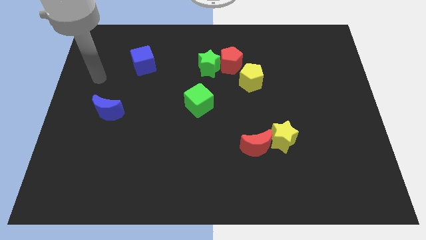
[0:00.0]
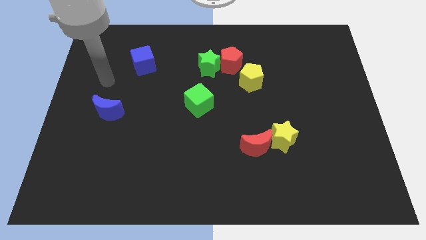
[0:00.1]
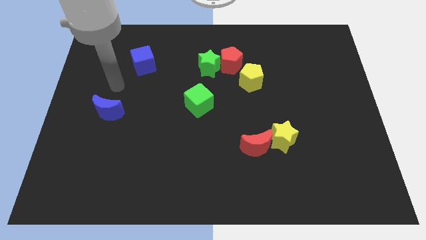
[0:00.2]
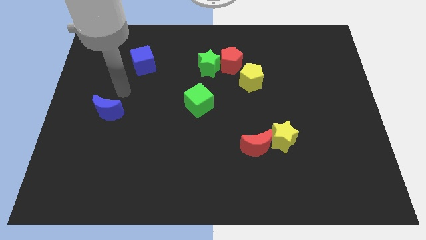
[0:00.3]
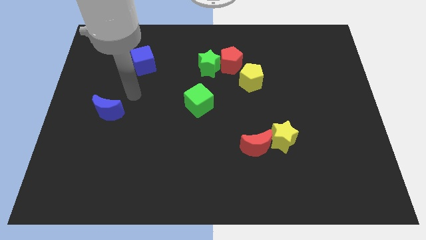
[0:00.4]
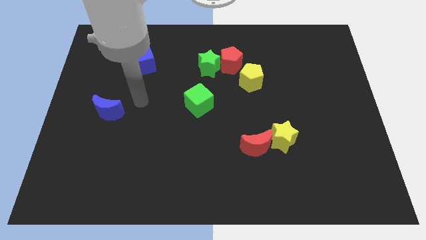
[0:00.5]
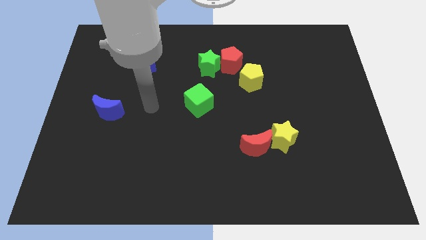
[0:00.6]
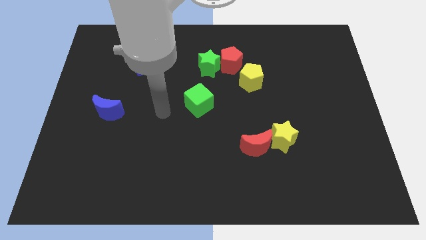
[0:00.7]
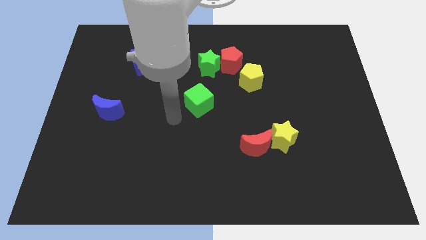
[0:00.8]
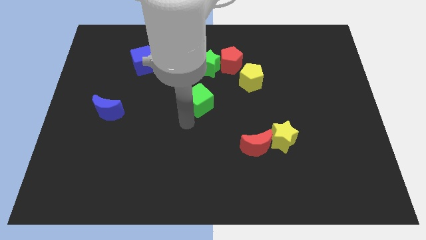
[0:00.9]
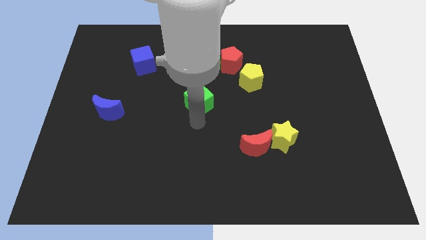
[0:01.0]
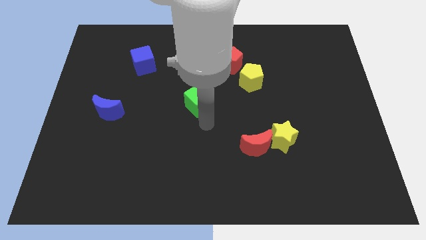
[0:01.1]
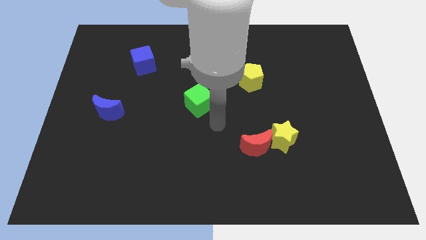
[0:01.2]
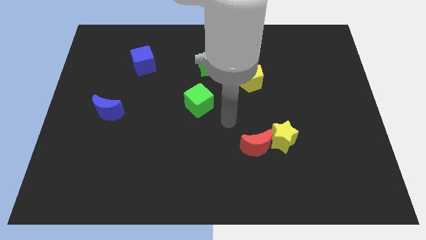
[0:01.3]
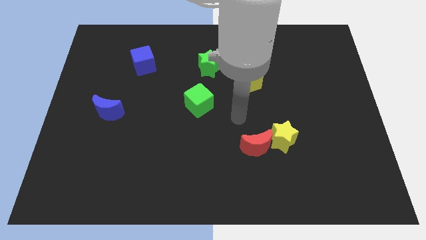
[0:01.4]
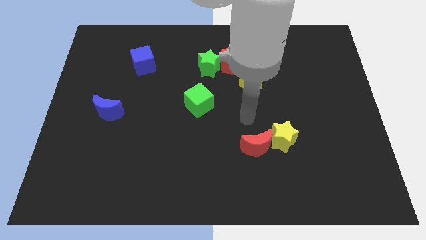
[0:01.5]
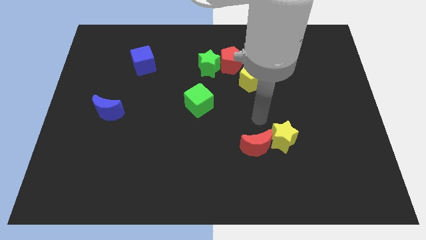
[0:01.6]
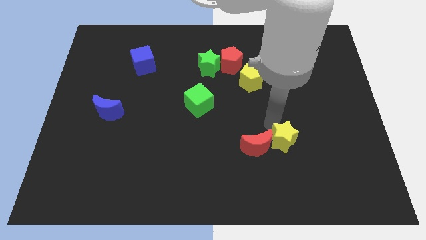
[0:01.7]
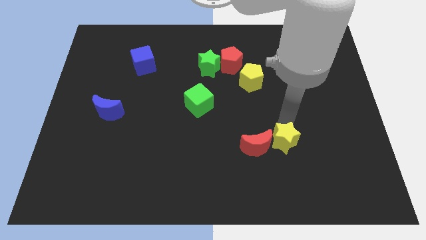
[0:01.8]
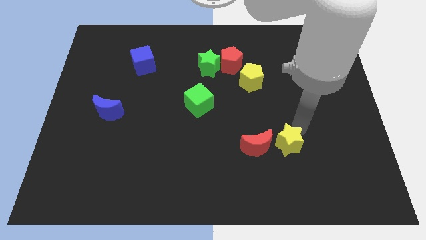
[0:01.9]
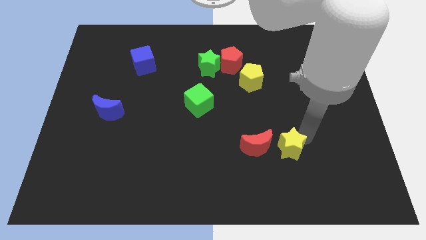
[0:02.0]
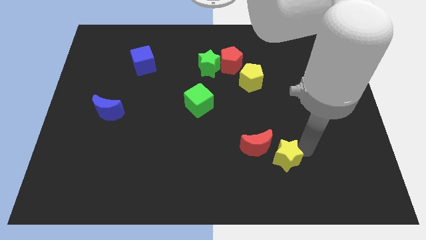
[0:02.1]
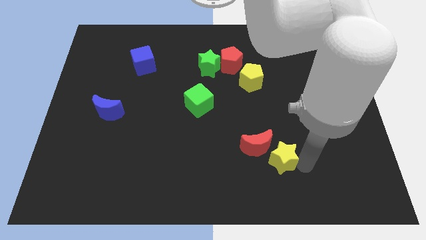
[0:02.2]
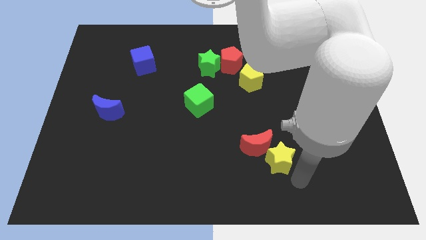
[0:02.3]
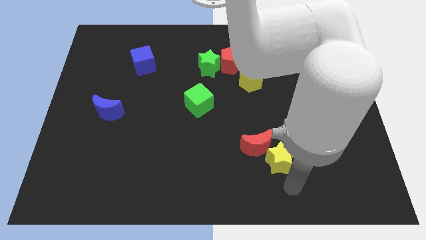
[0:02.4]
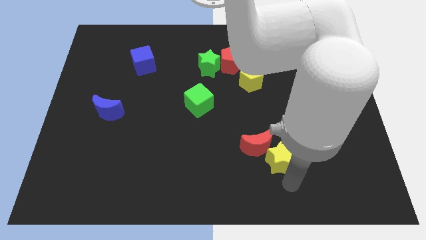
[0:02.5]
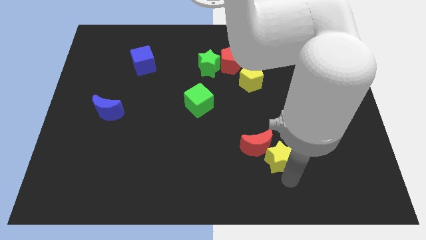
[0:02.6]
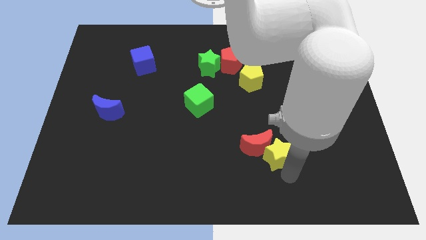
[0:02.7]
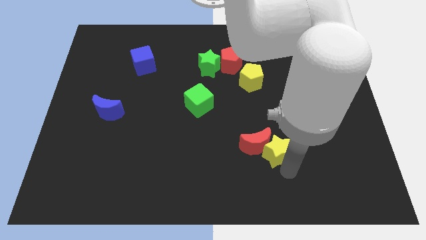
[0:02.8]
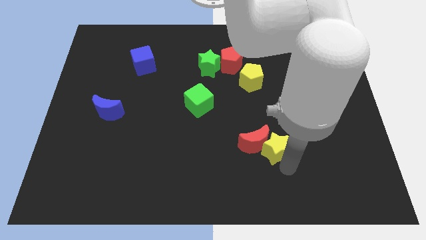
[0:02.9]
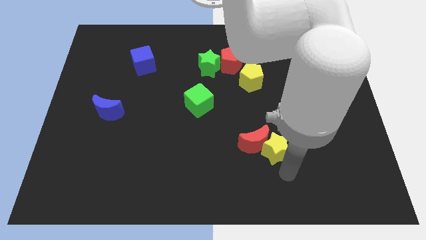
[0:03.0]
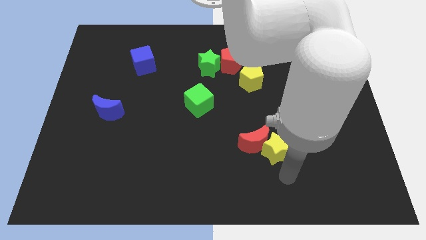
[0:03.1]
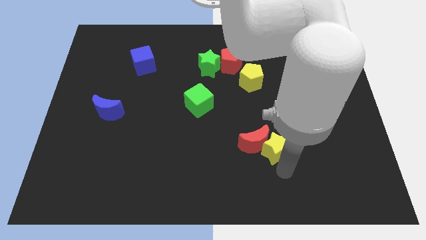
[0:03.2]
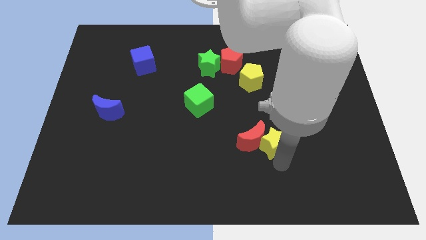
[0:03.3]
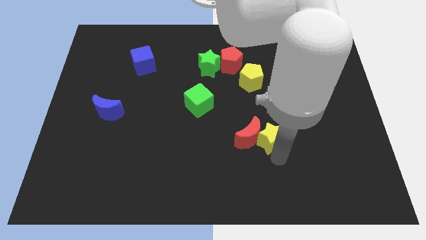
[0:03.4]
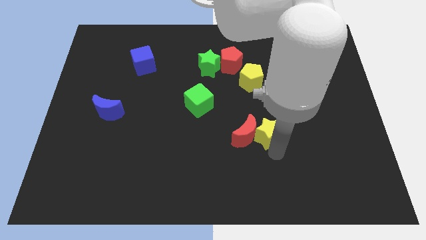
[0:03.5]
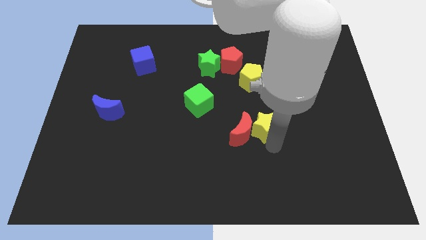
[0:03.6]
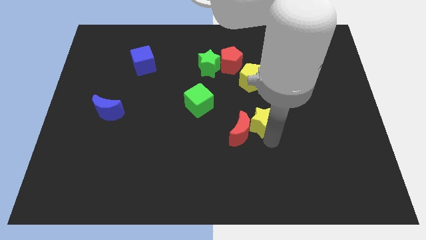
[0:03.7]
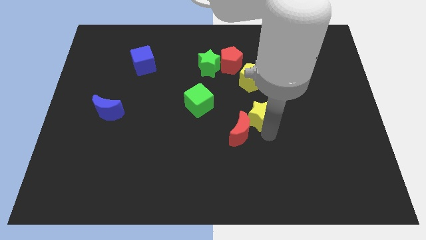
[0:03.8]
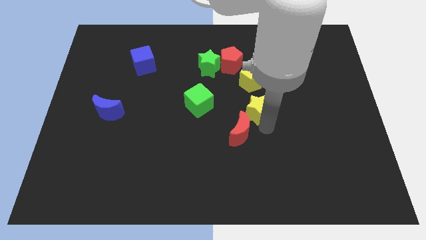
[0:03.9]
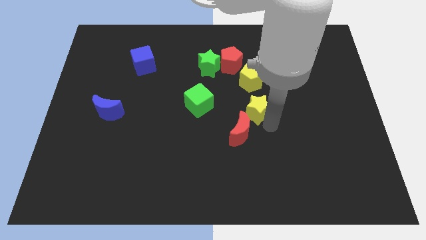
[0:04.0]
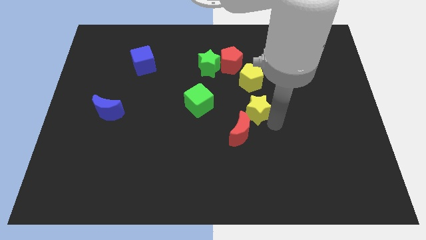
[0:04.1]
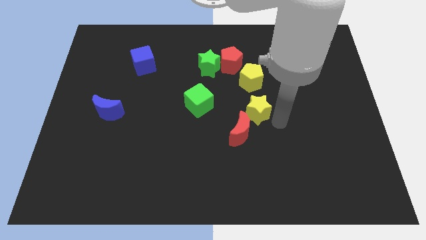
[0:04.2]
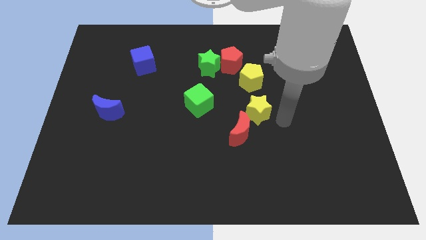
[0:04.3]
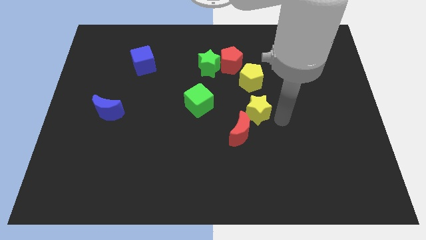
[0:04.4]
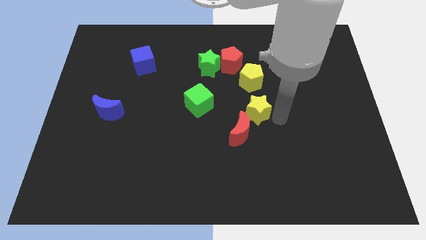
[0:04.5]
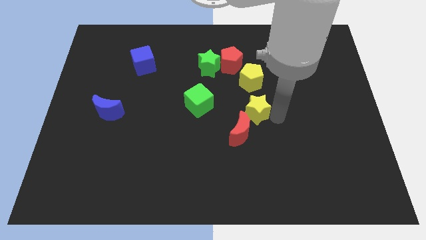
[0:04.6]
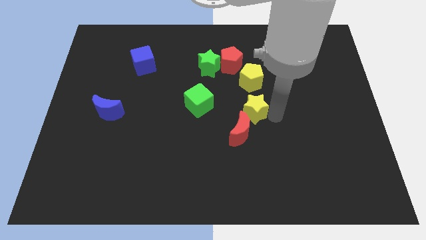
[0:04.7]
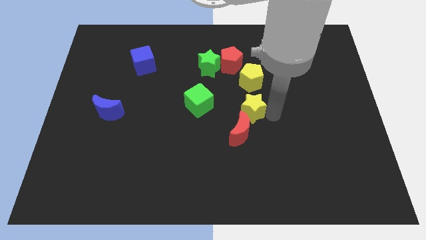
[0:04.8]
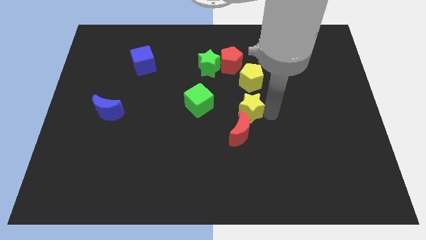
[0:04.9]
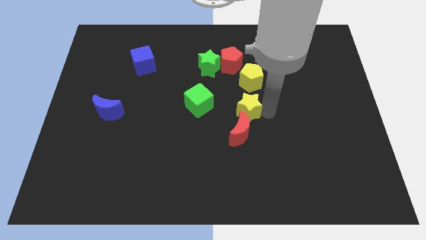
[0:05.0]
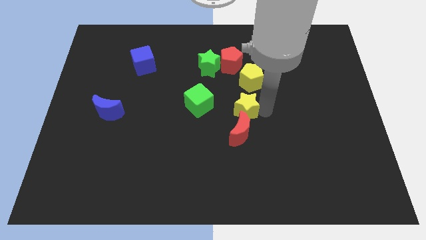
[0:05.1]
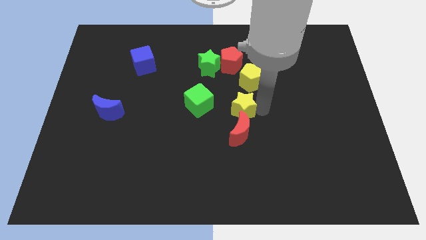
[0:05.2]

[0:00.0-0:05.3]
move the yellow star to the bottom left of the yellow pentagon

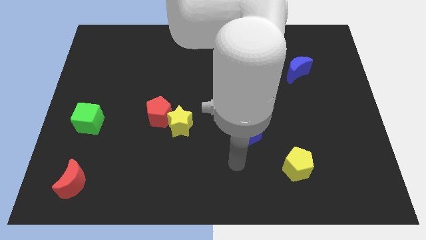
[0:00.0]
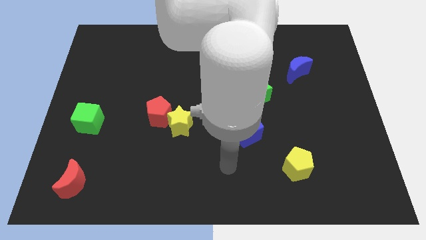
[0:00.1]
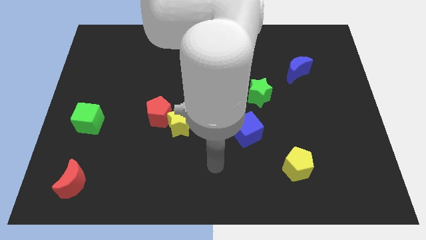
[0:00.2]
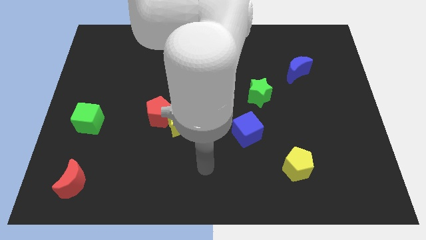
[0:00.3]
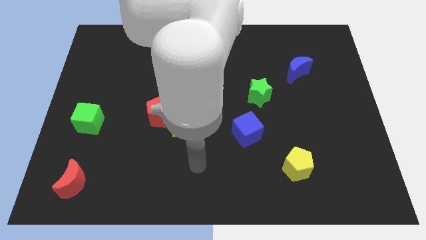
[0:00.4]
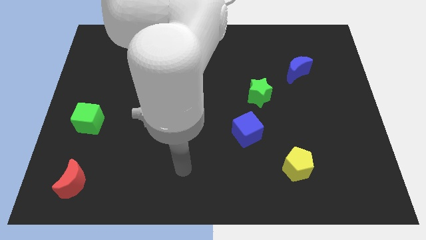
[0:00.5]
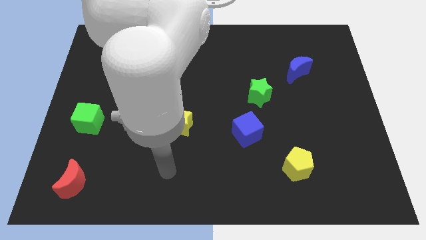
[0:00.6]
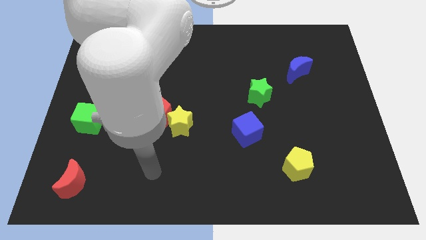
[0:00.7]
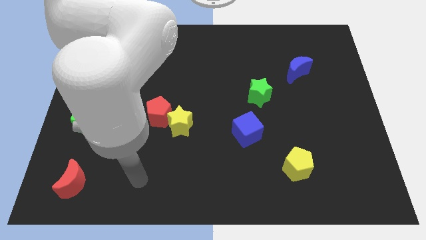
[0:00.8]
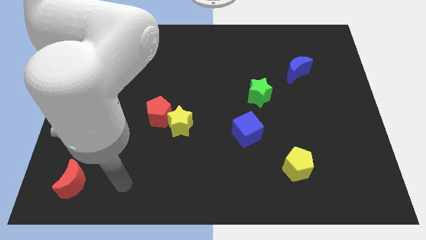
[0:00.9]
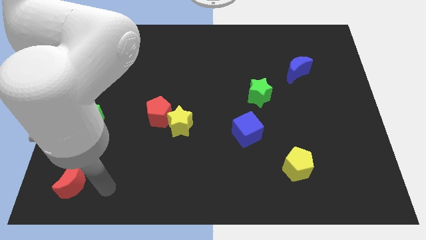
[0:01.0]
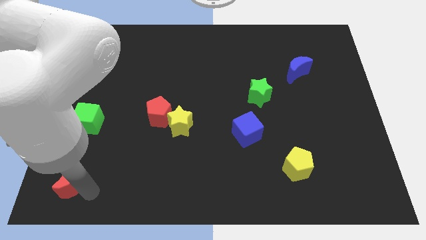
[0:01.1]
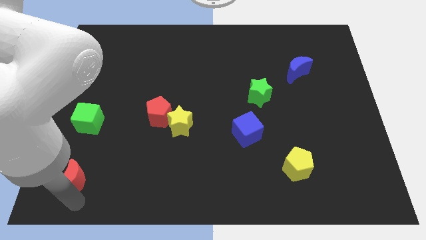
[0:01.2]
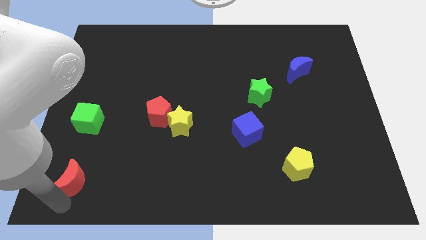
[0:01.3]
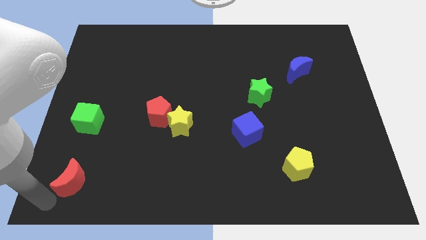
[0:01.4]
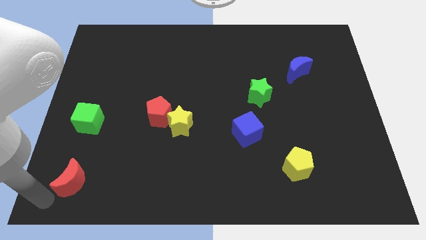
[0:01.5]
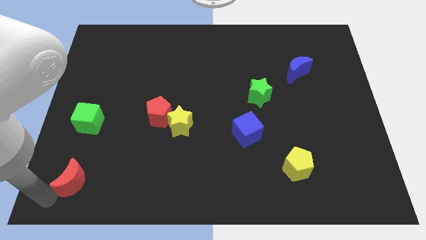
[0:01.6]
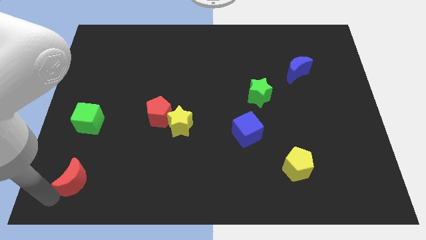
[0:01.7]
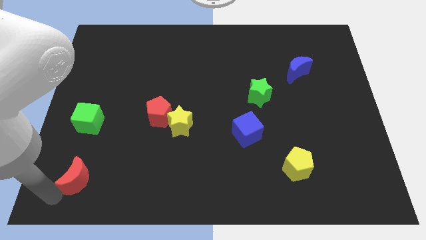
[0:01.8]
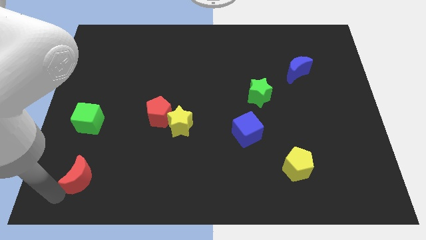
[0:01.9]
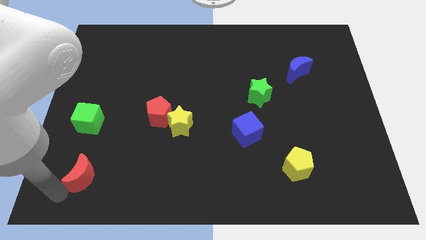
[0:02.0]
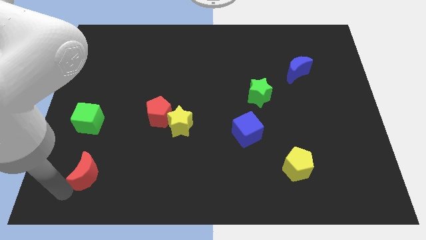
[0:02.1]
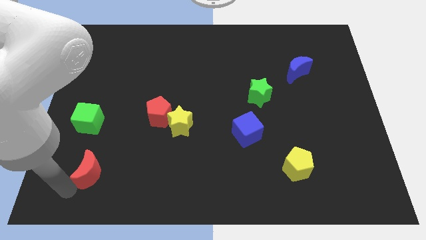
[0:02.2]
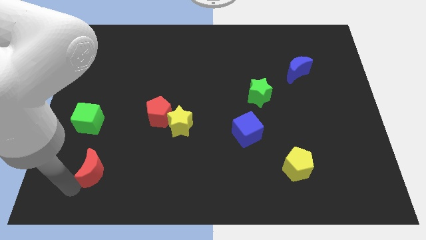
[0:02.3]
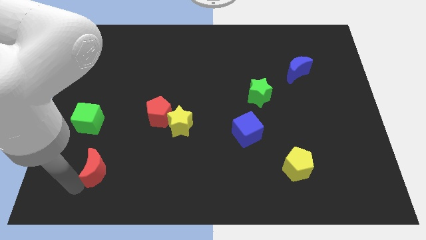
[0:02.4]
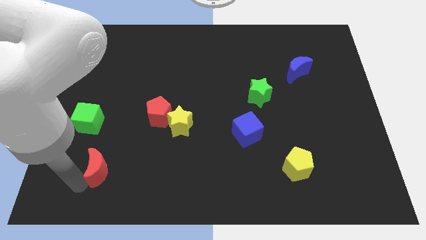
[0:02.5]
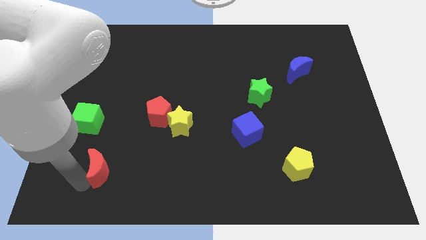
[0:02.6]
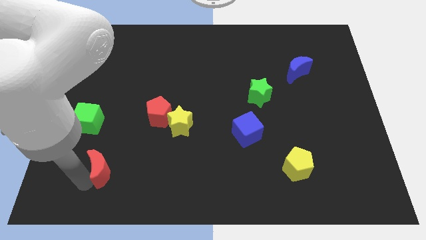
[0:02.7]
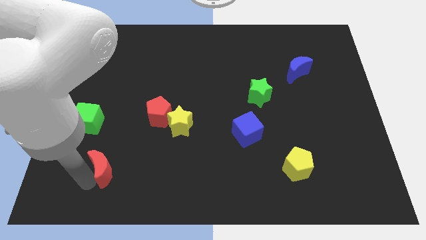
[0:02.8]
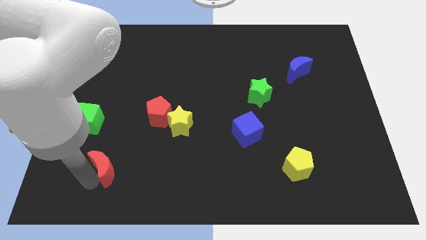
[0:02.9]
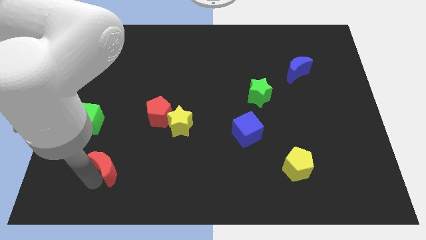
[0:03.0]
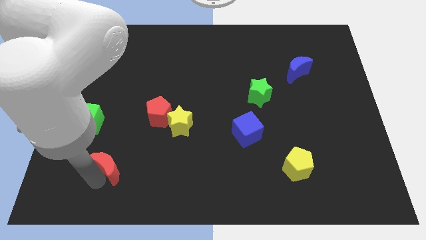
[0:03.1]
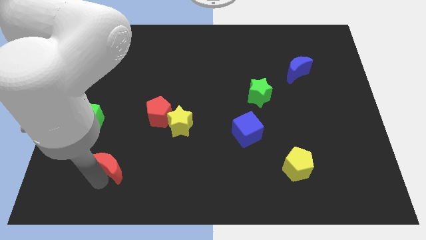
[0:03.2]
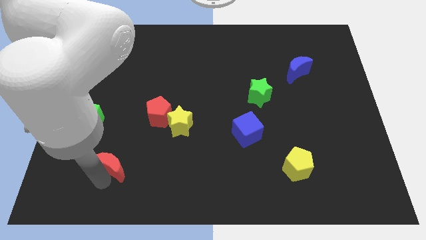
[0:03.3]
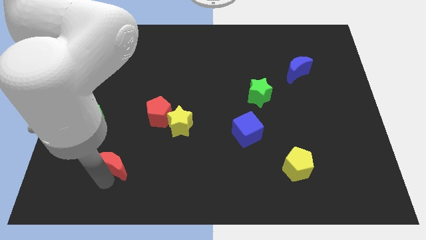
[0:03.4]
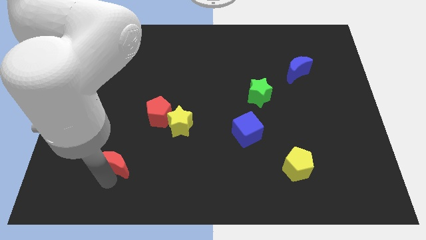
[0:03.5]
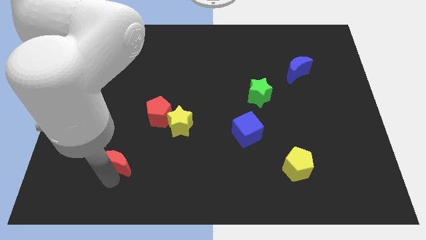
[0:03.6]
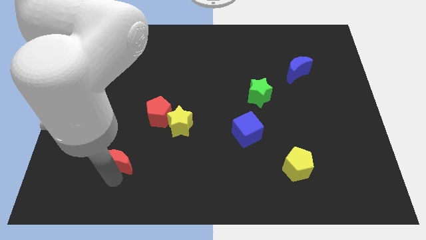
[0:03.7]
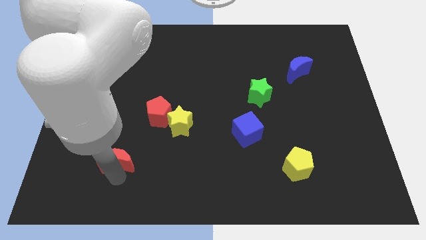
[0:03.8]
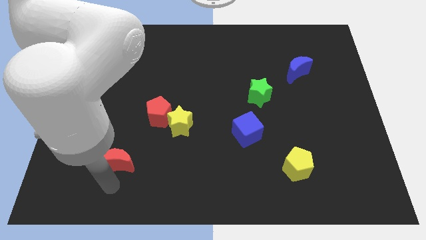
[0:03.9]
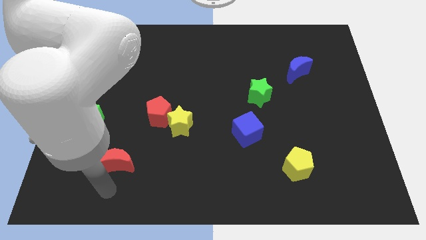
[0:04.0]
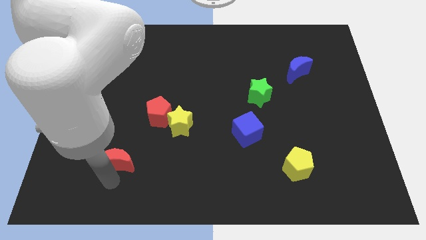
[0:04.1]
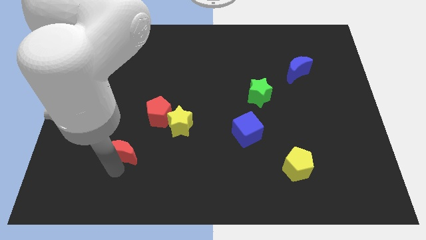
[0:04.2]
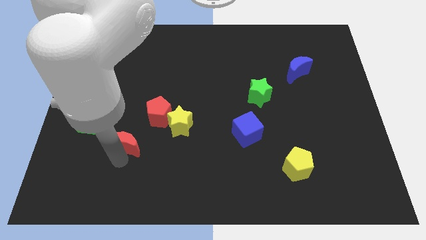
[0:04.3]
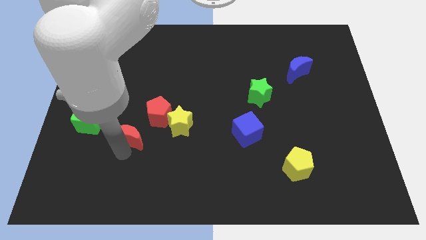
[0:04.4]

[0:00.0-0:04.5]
push the red moon to the right side of the green cube
